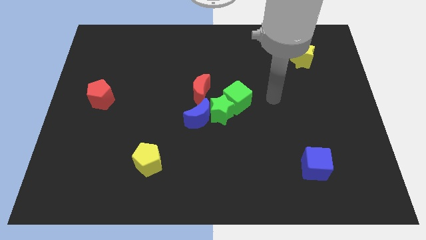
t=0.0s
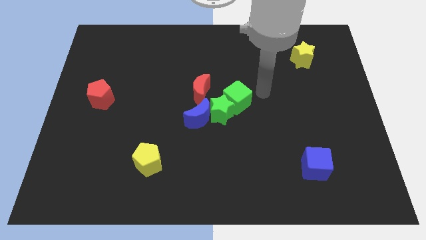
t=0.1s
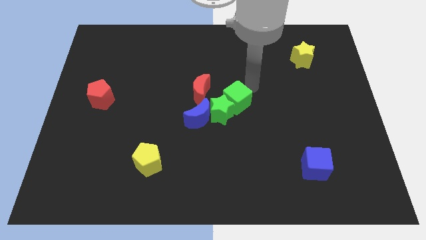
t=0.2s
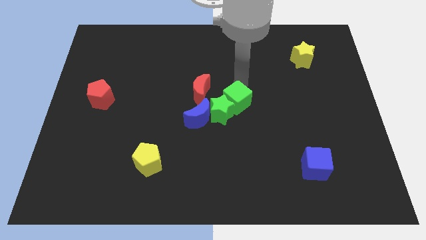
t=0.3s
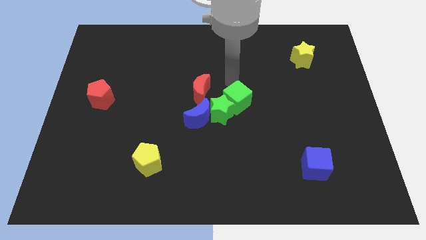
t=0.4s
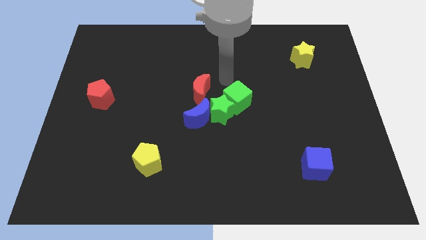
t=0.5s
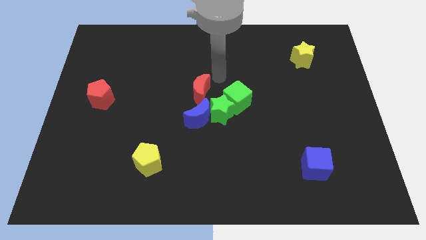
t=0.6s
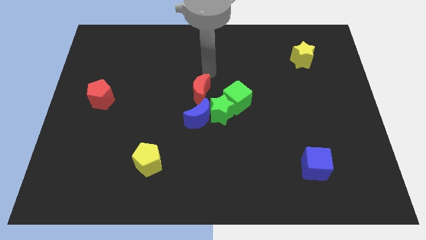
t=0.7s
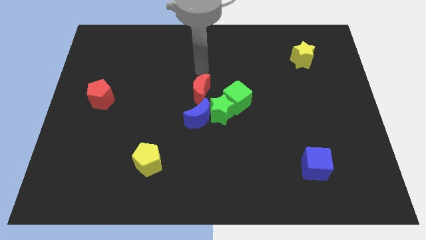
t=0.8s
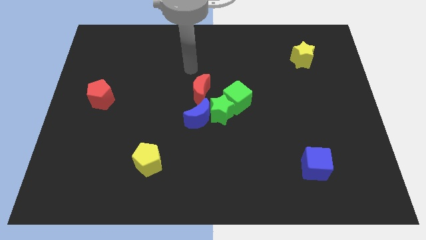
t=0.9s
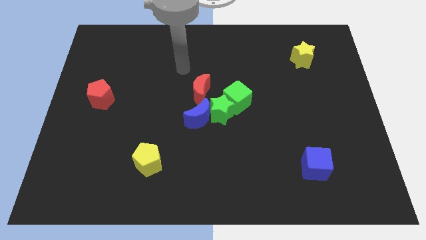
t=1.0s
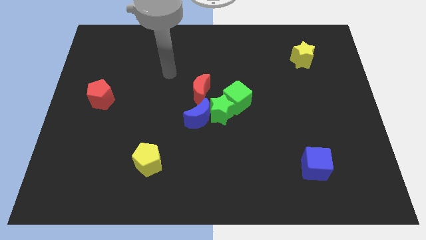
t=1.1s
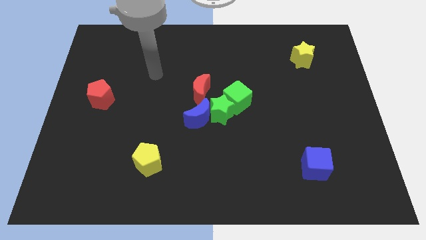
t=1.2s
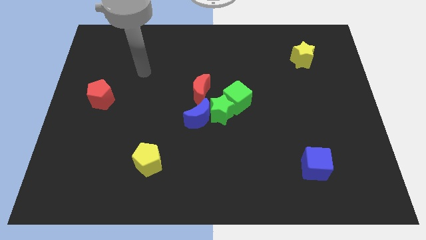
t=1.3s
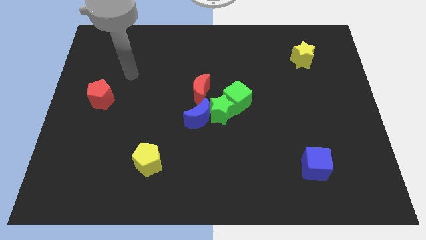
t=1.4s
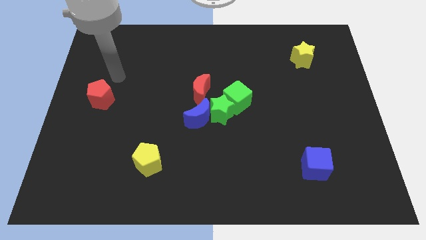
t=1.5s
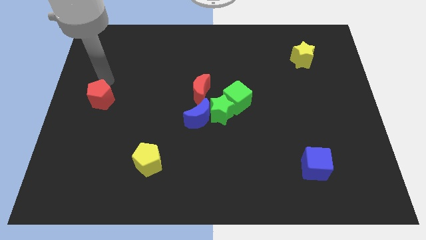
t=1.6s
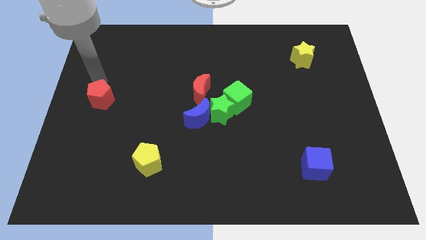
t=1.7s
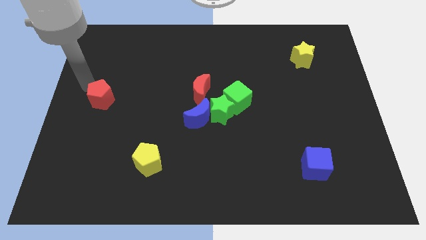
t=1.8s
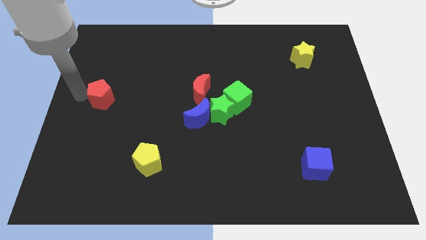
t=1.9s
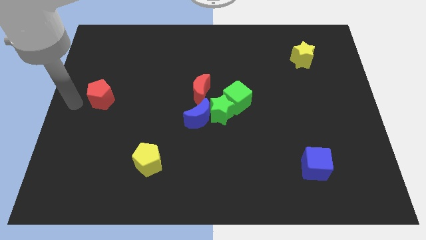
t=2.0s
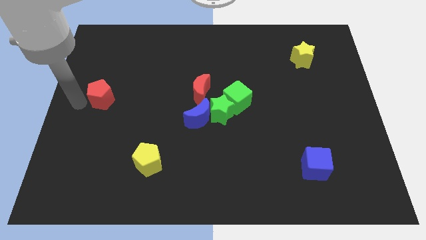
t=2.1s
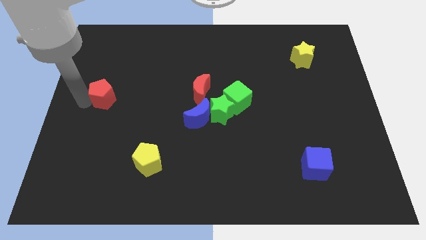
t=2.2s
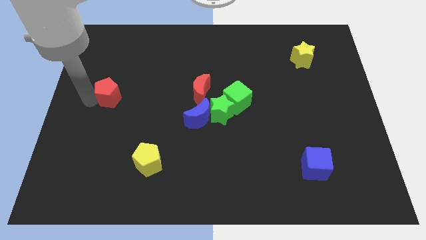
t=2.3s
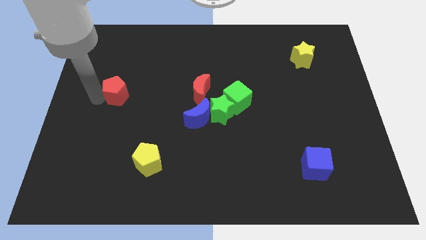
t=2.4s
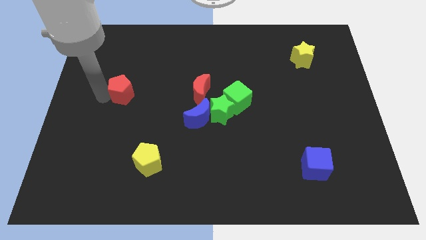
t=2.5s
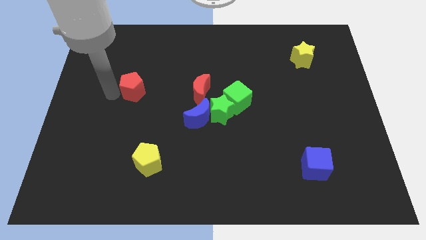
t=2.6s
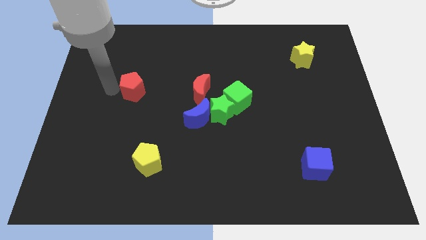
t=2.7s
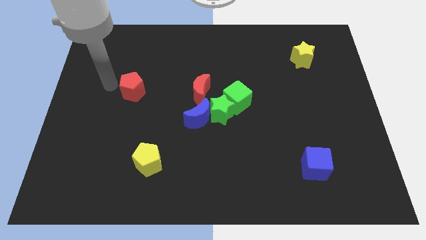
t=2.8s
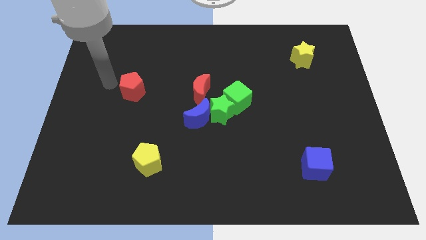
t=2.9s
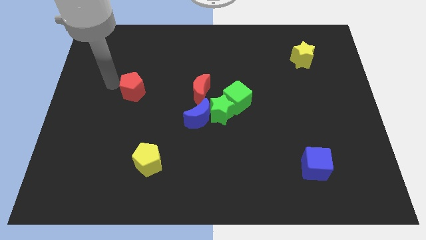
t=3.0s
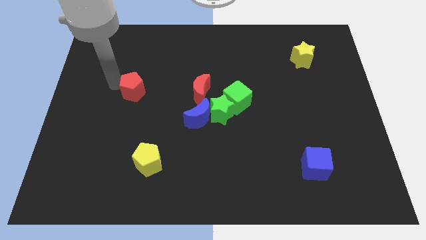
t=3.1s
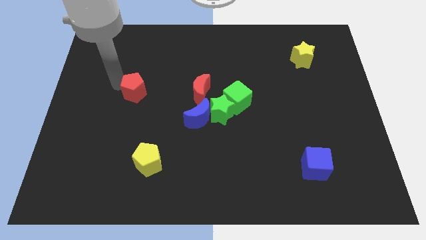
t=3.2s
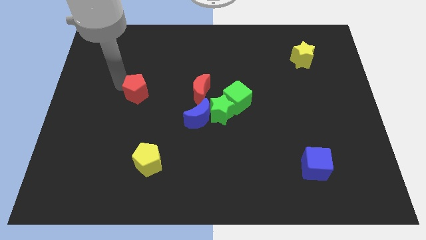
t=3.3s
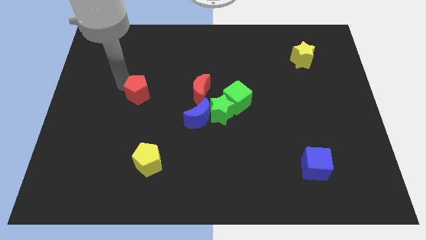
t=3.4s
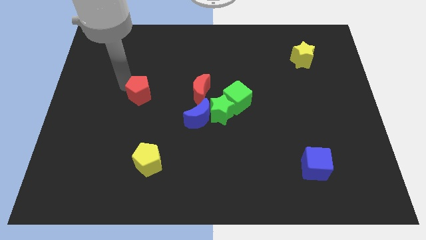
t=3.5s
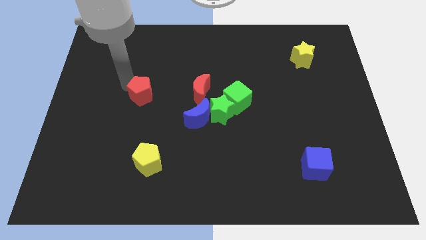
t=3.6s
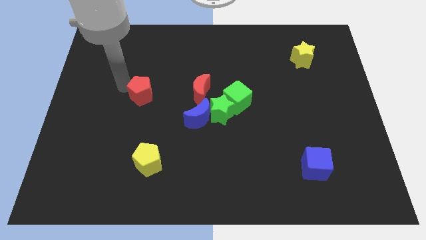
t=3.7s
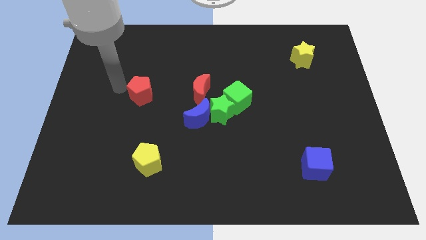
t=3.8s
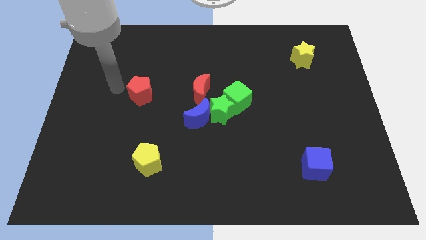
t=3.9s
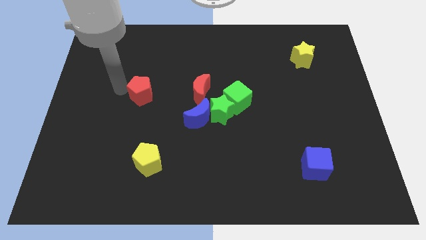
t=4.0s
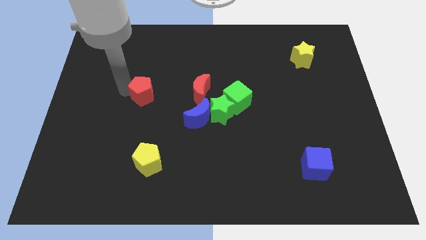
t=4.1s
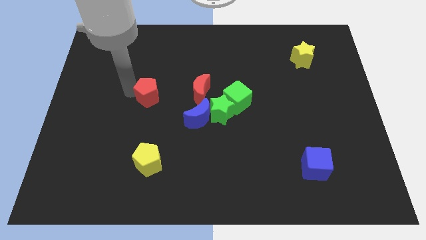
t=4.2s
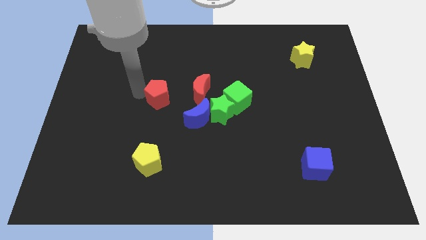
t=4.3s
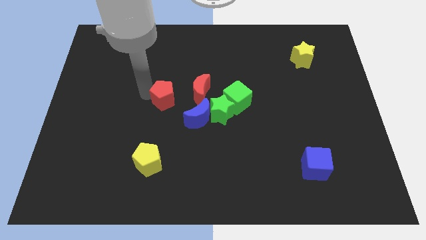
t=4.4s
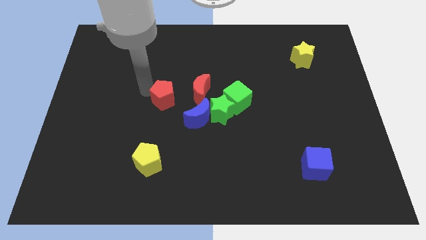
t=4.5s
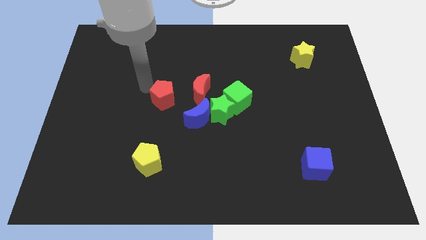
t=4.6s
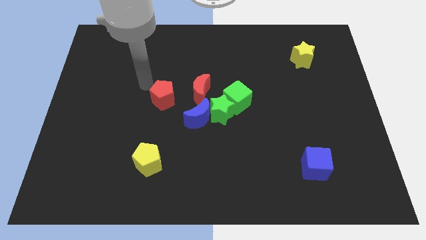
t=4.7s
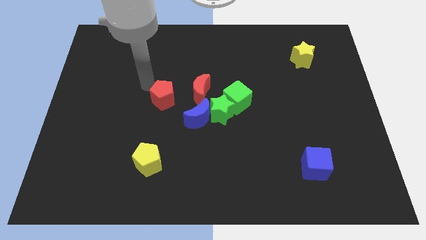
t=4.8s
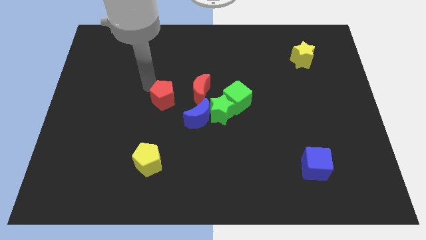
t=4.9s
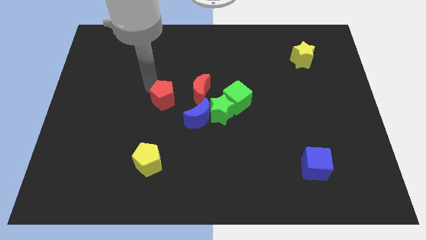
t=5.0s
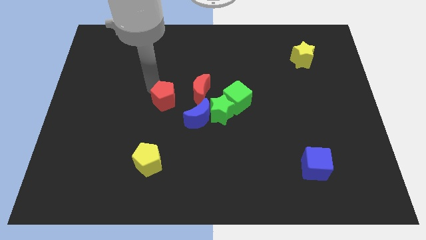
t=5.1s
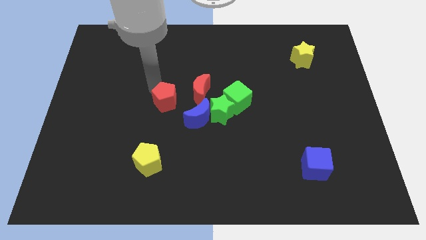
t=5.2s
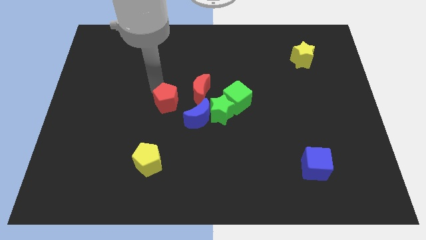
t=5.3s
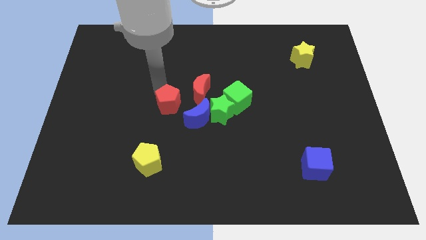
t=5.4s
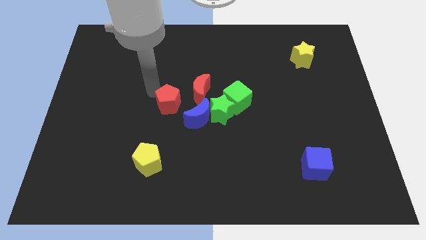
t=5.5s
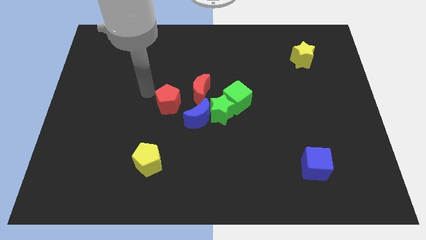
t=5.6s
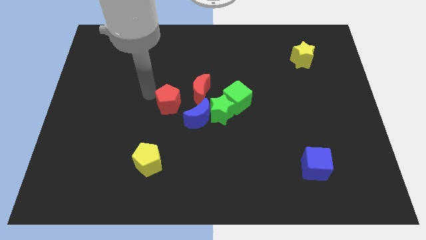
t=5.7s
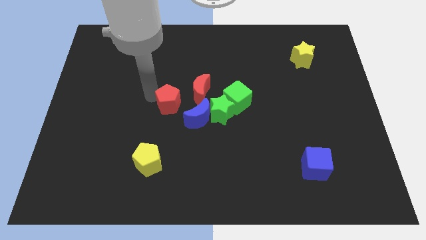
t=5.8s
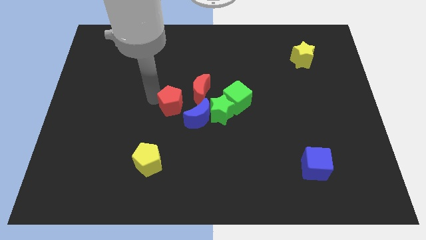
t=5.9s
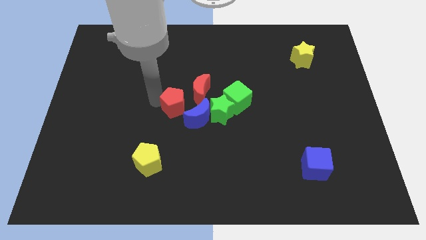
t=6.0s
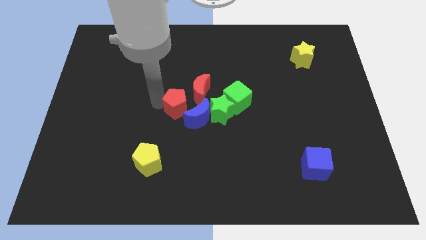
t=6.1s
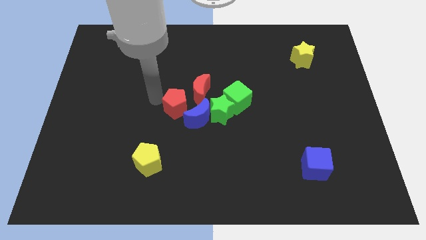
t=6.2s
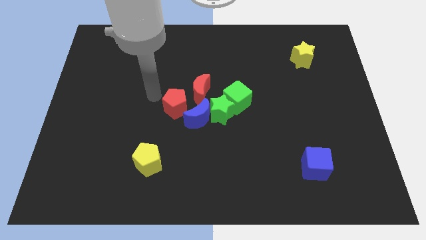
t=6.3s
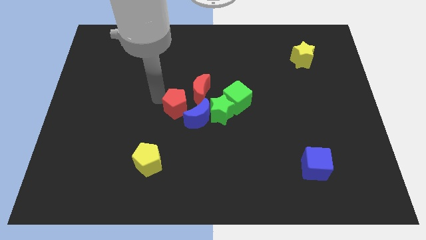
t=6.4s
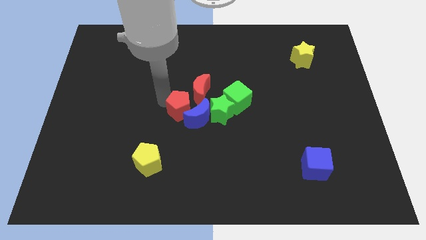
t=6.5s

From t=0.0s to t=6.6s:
slide the red pentagon next to the blue moon

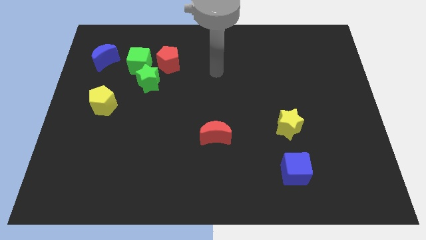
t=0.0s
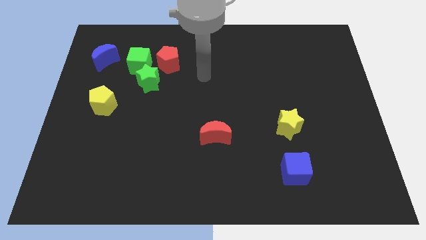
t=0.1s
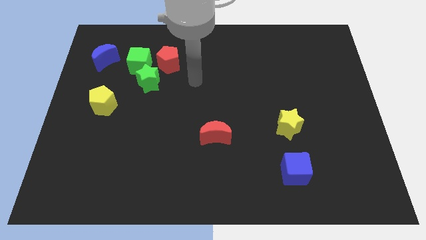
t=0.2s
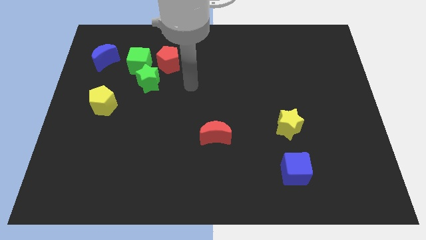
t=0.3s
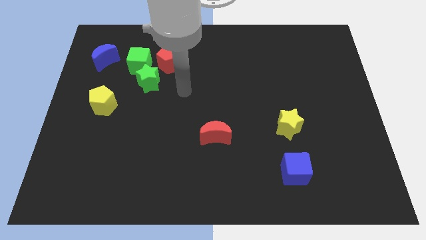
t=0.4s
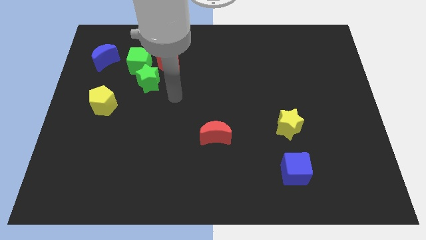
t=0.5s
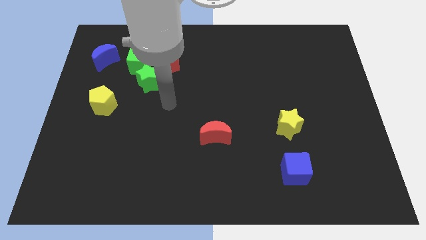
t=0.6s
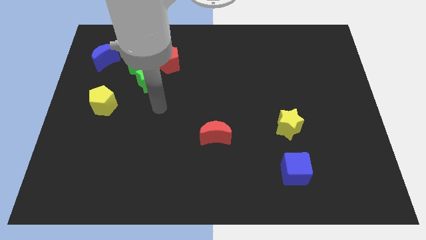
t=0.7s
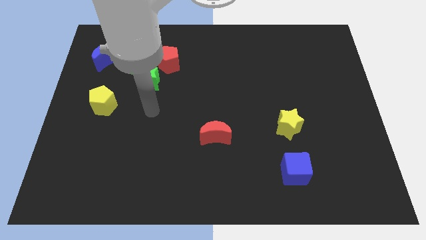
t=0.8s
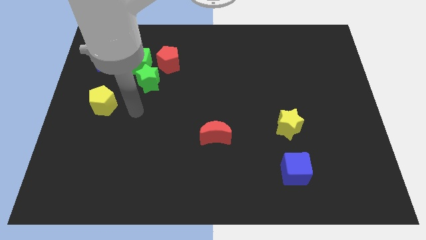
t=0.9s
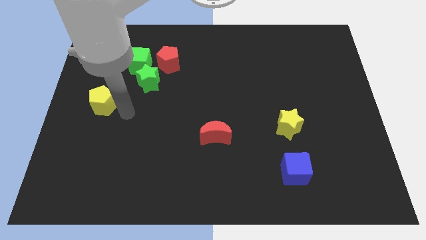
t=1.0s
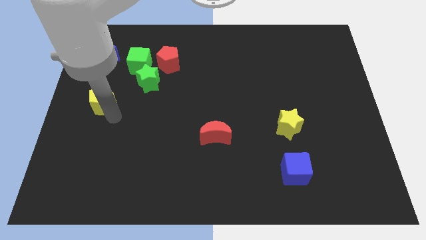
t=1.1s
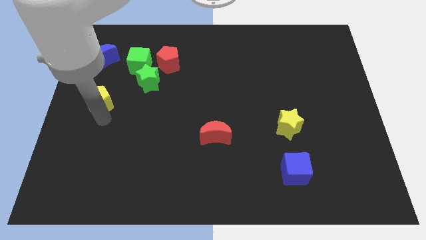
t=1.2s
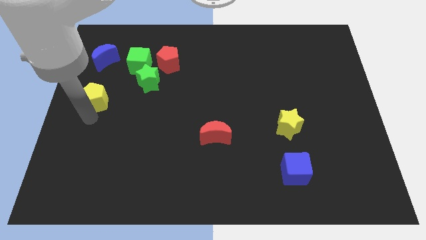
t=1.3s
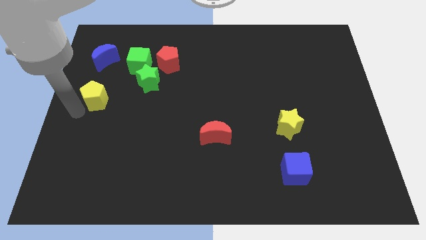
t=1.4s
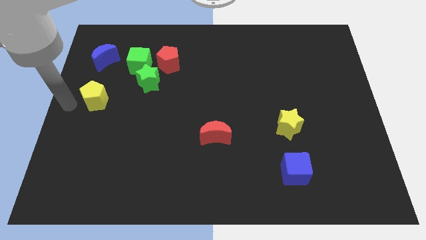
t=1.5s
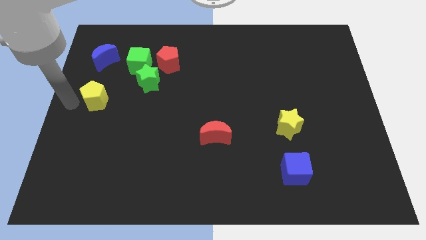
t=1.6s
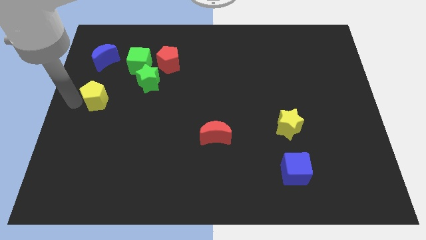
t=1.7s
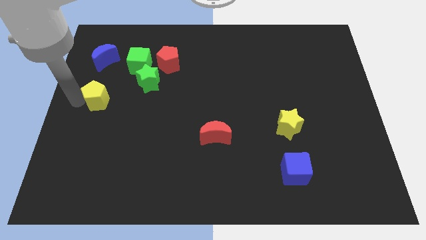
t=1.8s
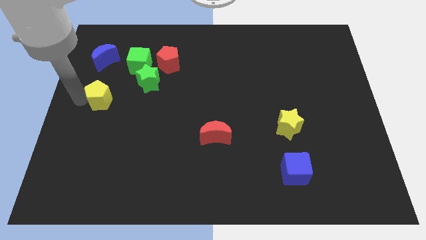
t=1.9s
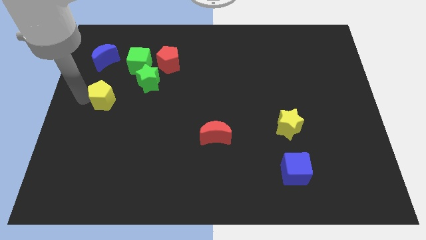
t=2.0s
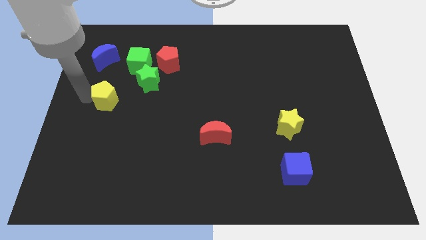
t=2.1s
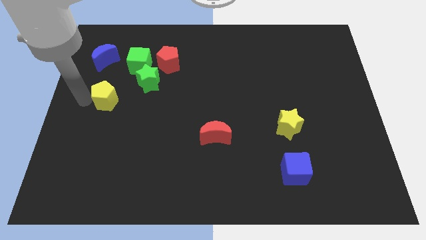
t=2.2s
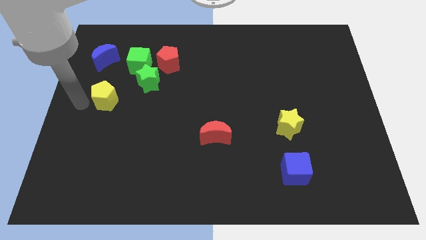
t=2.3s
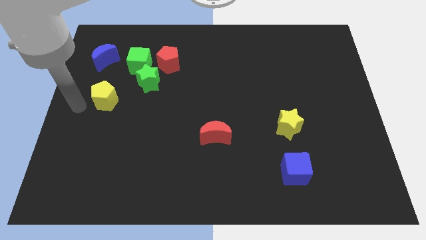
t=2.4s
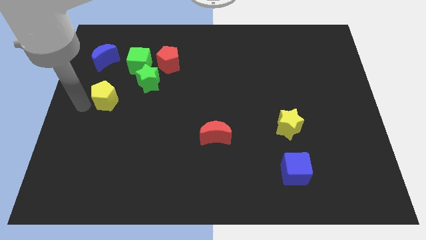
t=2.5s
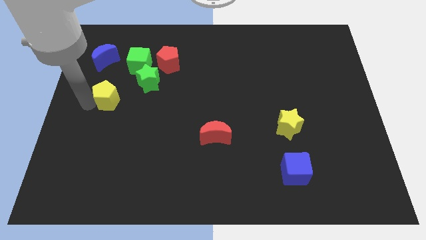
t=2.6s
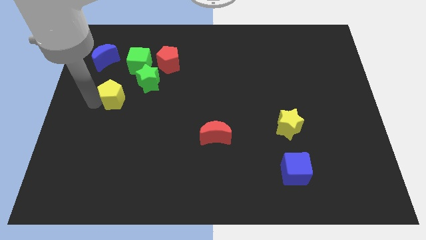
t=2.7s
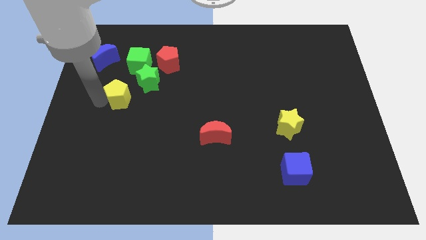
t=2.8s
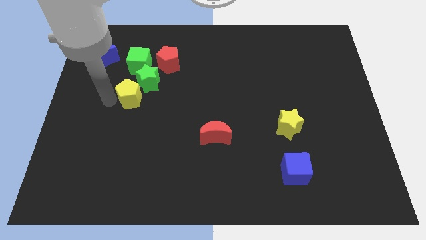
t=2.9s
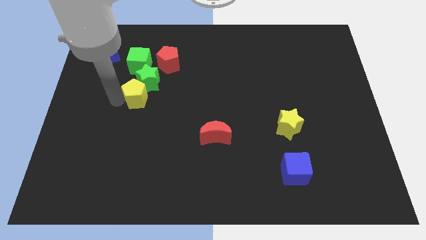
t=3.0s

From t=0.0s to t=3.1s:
put the yellow pentagon to the green star
